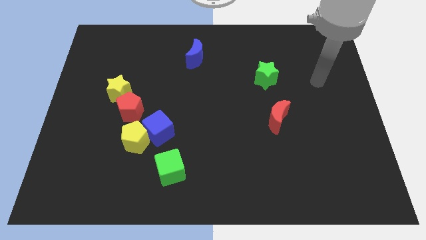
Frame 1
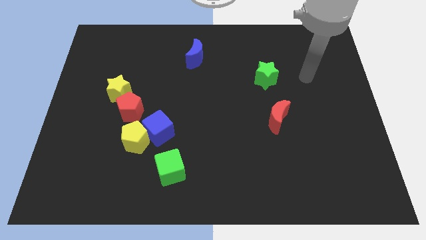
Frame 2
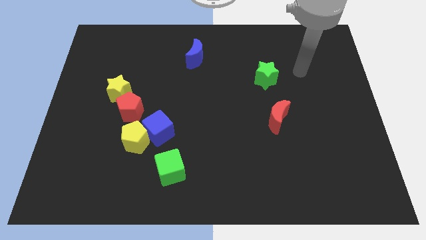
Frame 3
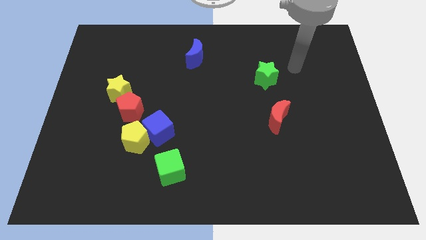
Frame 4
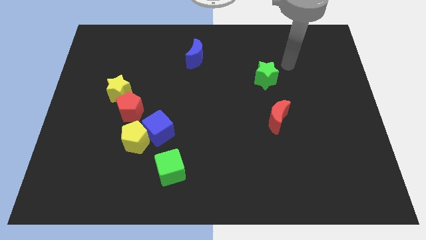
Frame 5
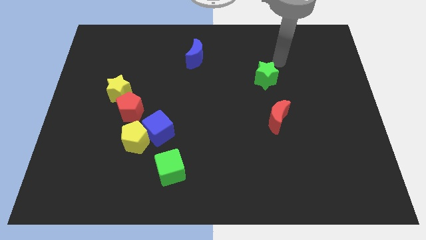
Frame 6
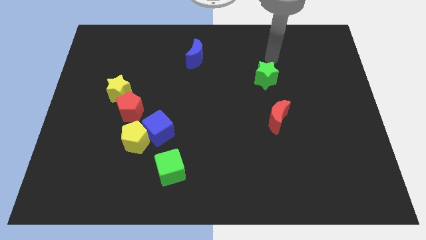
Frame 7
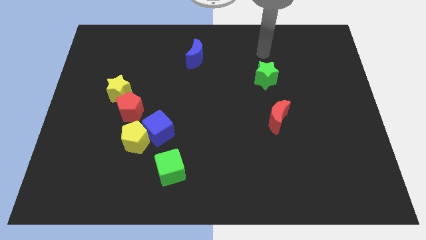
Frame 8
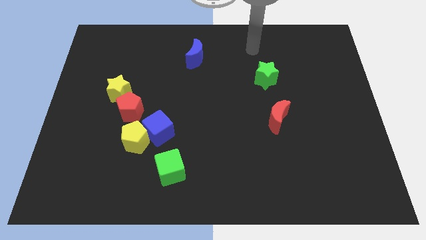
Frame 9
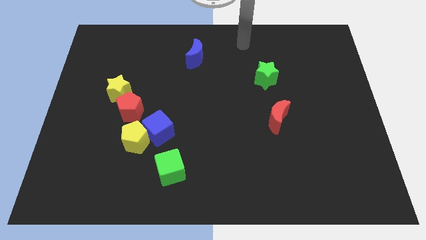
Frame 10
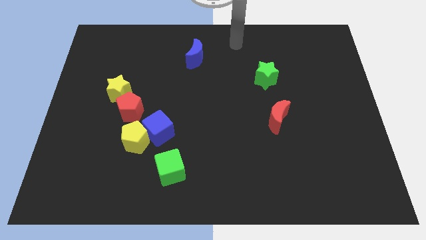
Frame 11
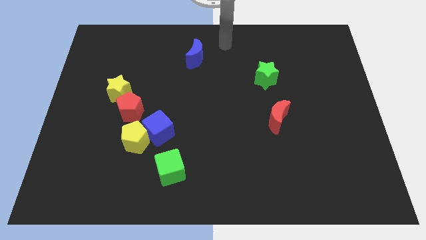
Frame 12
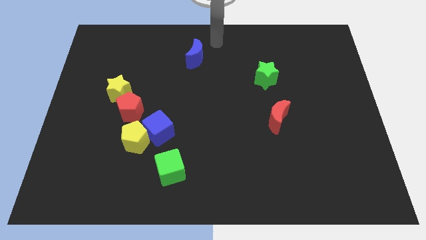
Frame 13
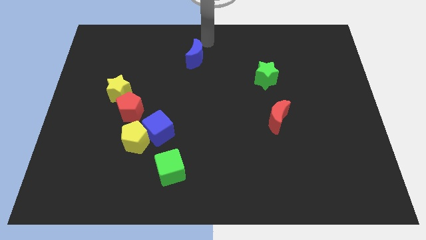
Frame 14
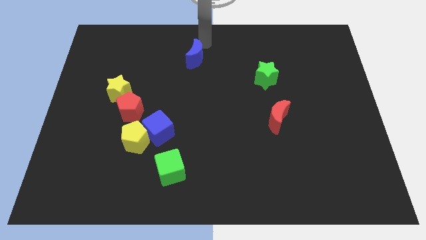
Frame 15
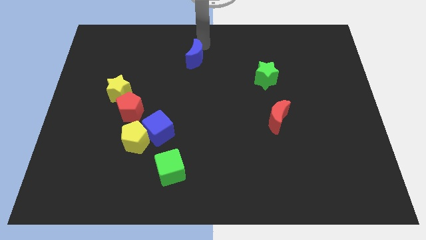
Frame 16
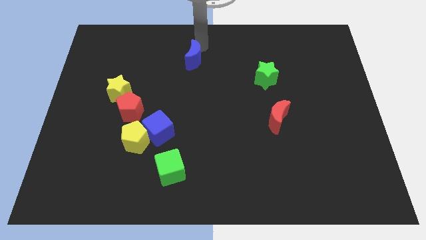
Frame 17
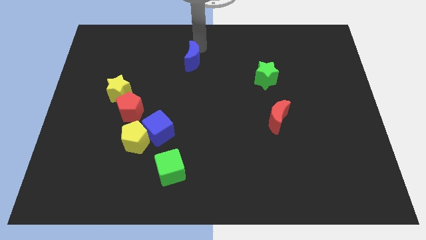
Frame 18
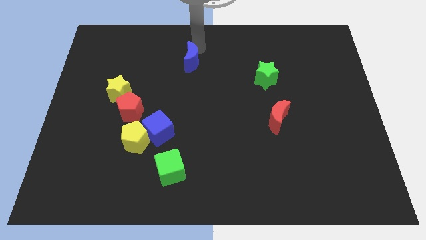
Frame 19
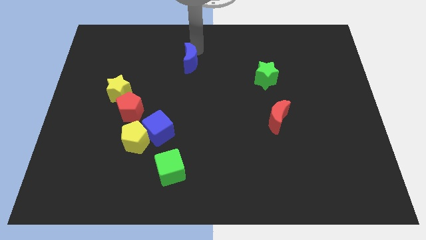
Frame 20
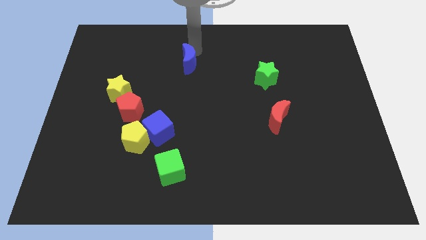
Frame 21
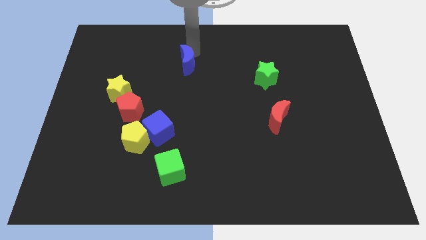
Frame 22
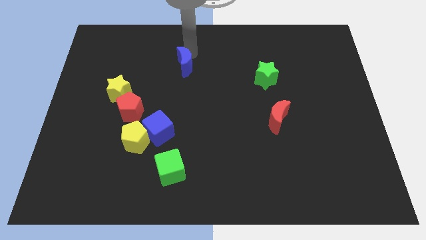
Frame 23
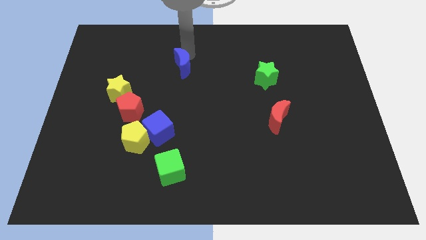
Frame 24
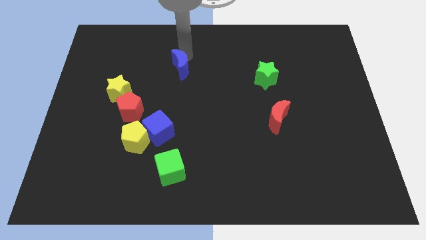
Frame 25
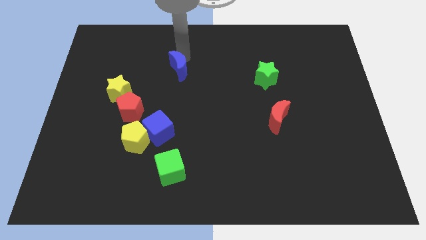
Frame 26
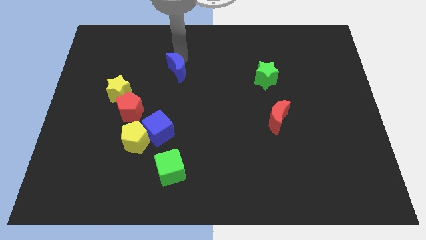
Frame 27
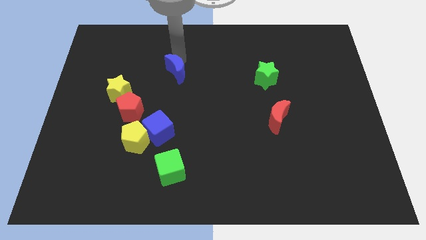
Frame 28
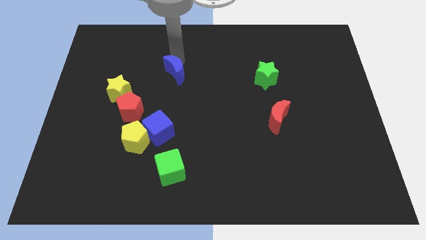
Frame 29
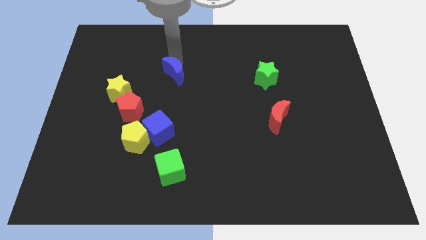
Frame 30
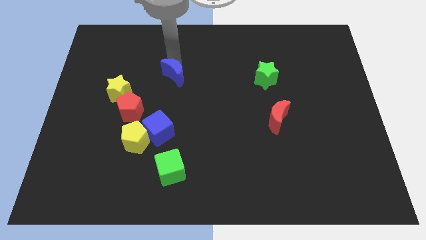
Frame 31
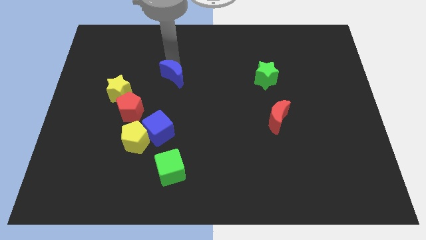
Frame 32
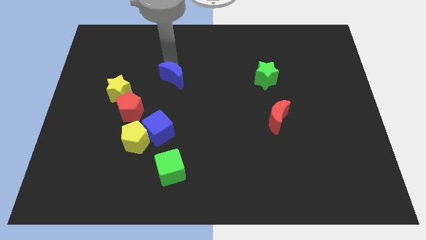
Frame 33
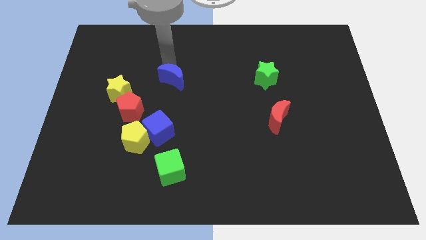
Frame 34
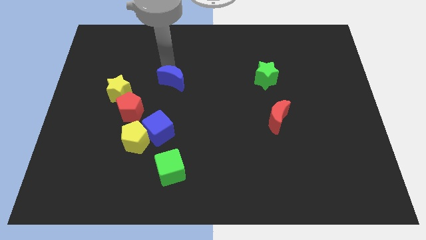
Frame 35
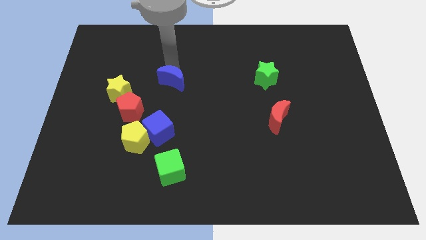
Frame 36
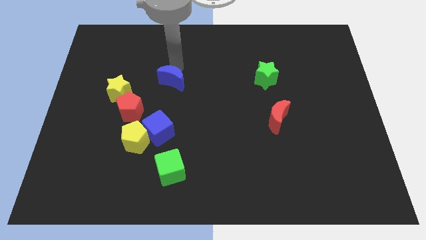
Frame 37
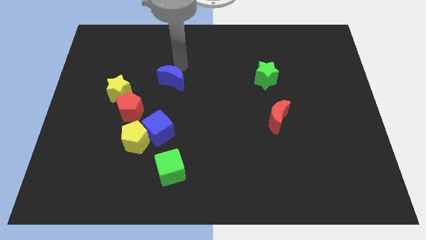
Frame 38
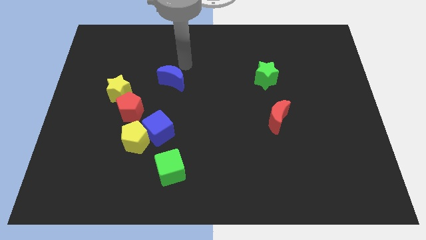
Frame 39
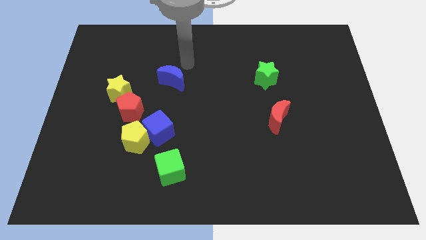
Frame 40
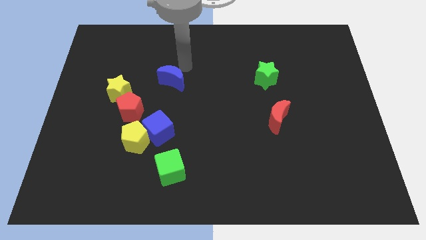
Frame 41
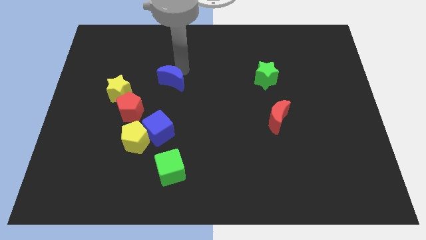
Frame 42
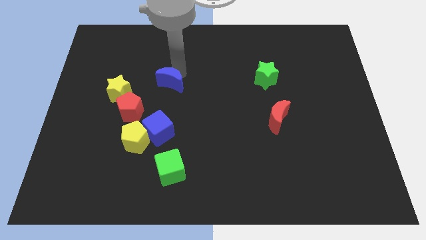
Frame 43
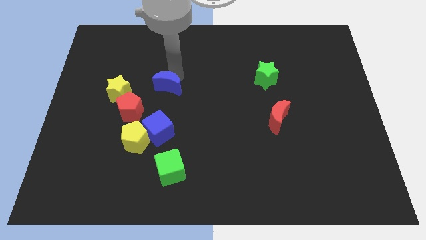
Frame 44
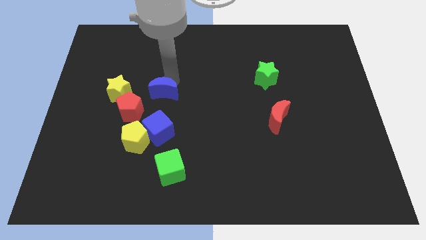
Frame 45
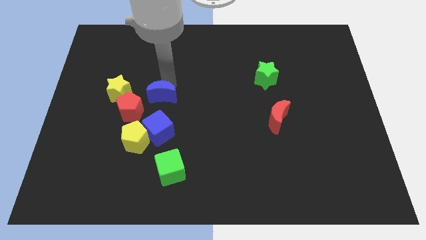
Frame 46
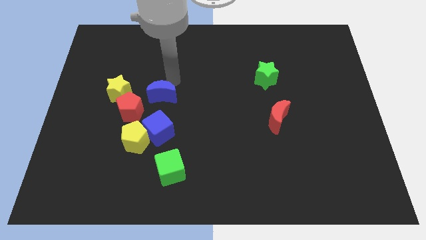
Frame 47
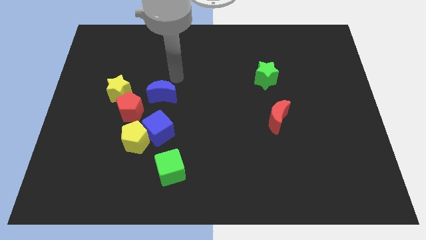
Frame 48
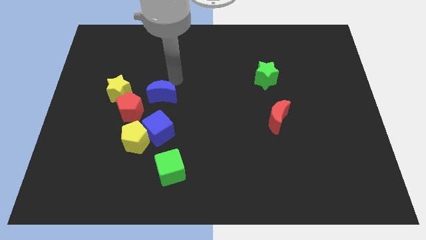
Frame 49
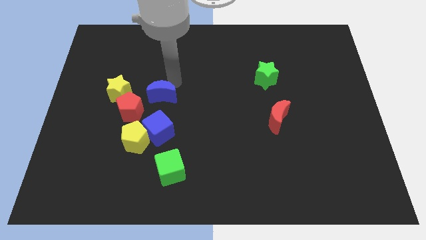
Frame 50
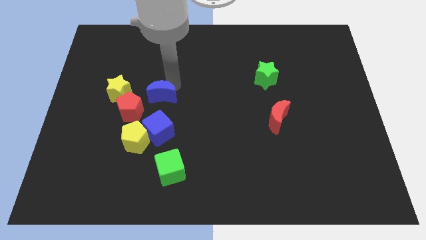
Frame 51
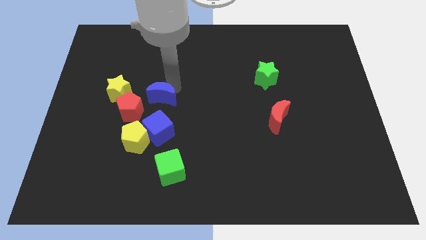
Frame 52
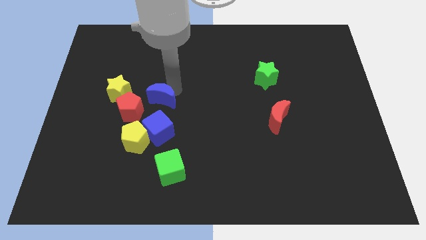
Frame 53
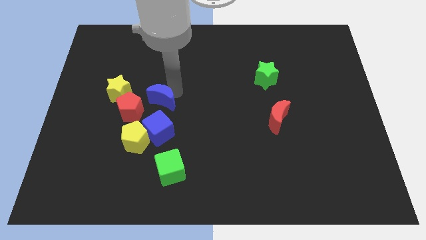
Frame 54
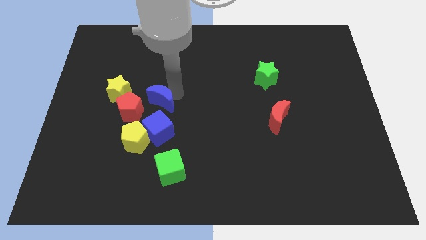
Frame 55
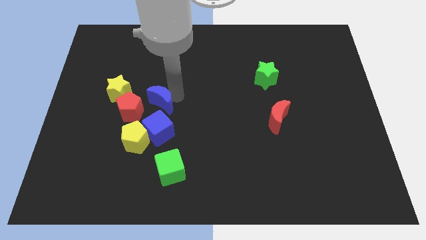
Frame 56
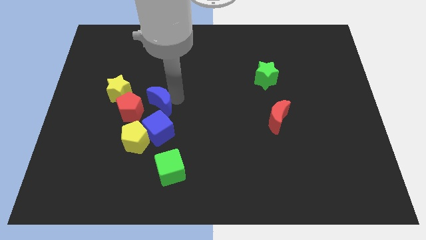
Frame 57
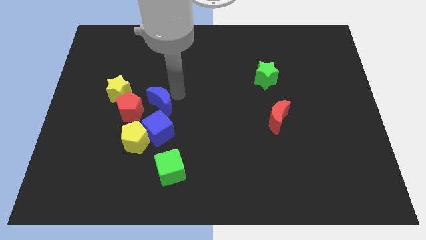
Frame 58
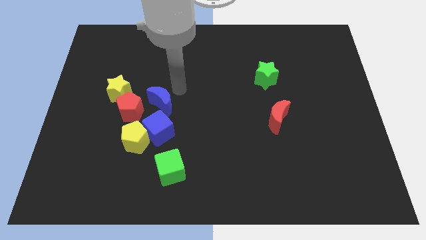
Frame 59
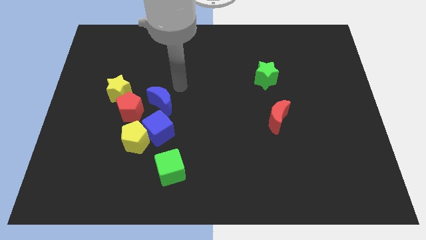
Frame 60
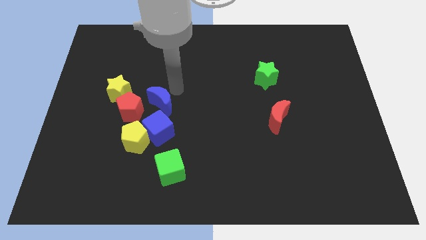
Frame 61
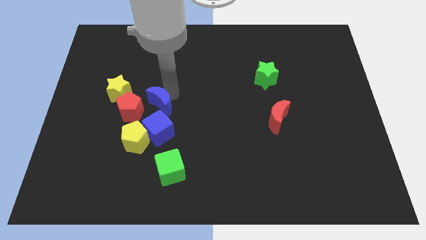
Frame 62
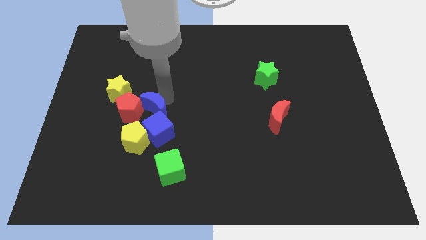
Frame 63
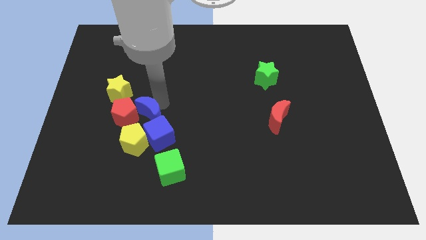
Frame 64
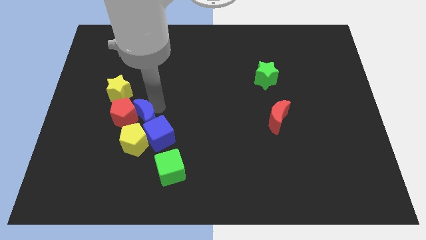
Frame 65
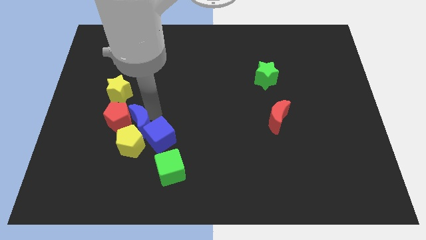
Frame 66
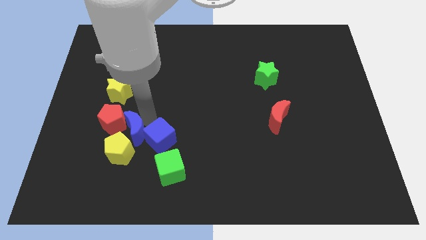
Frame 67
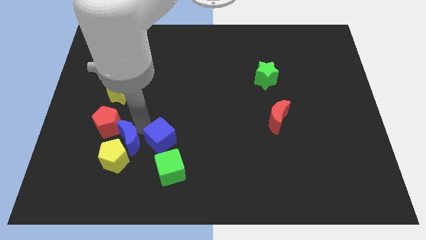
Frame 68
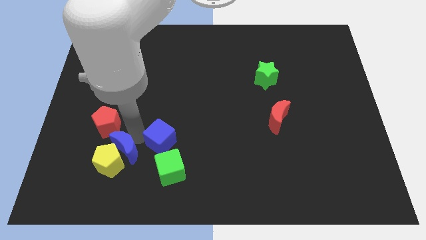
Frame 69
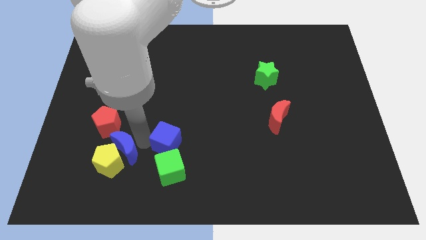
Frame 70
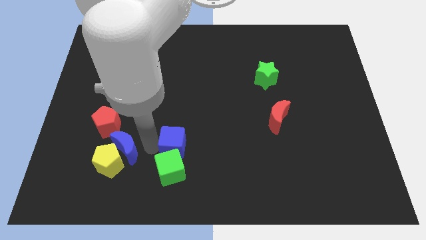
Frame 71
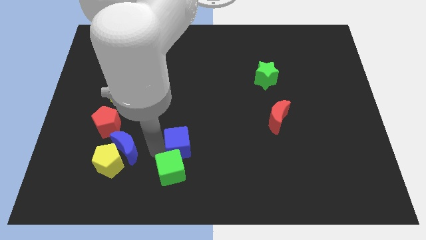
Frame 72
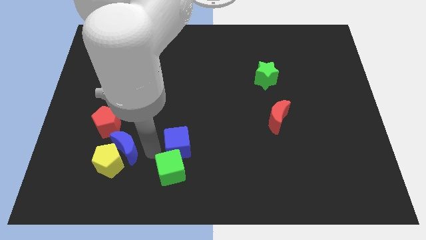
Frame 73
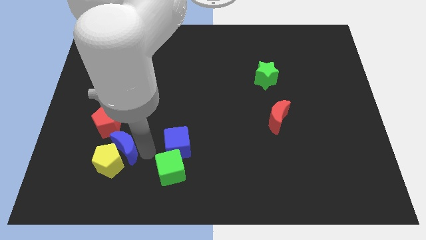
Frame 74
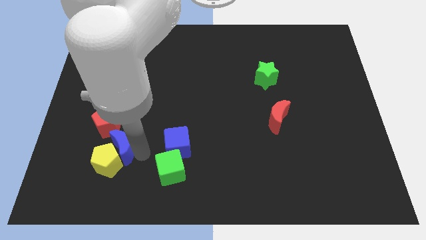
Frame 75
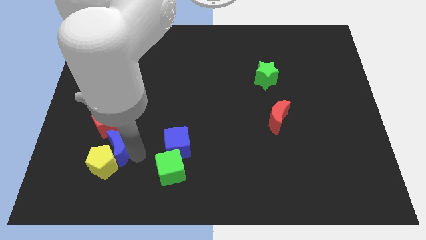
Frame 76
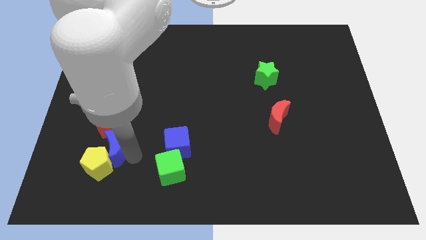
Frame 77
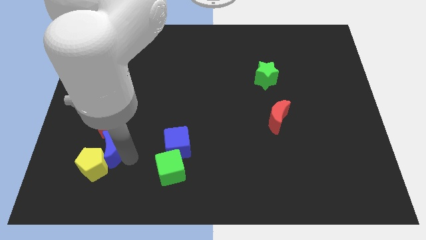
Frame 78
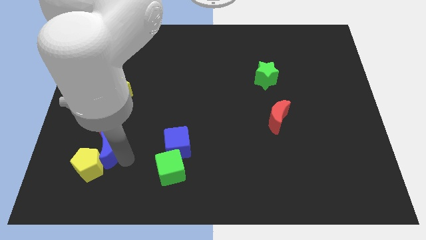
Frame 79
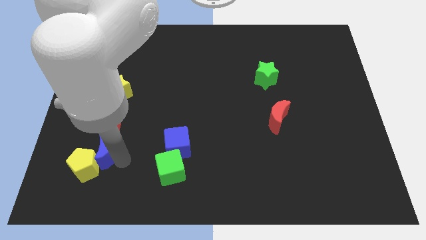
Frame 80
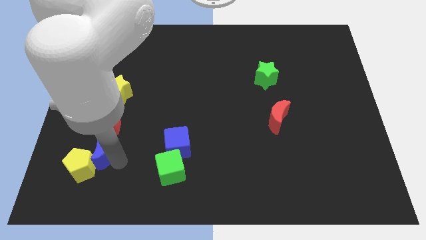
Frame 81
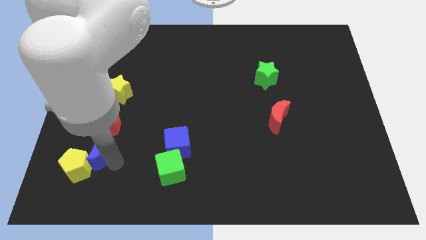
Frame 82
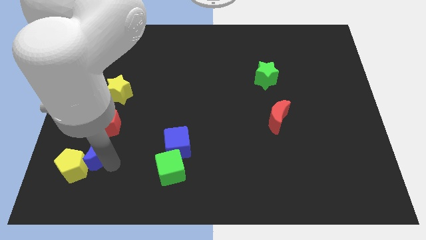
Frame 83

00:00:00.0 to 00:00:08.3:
slide the blue moon to the bottom left side of the red pentagon

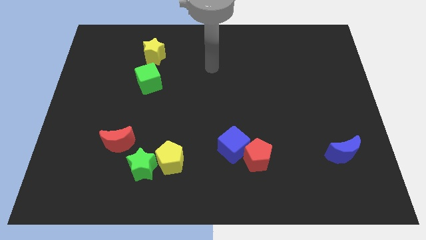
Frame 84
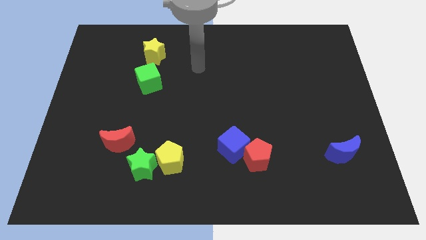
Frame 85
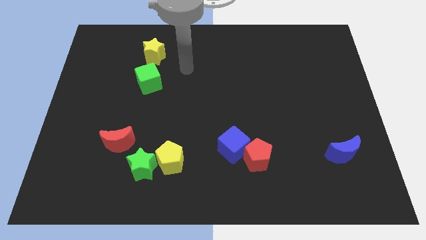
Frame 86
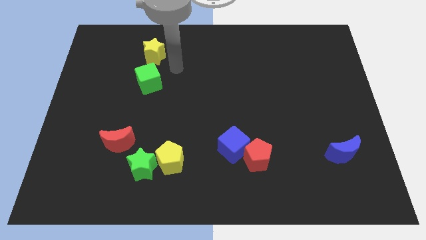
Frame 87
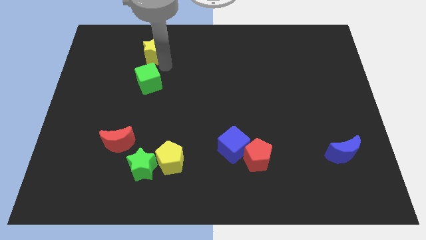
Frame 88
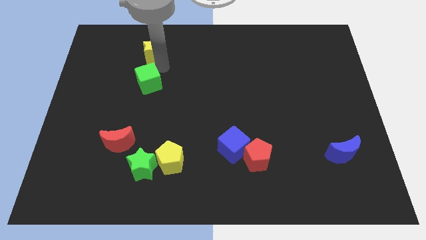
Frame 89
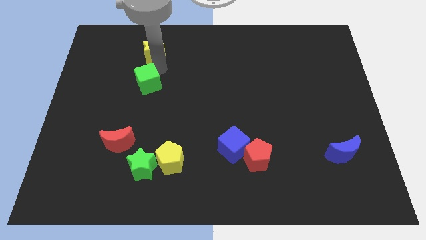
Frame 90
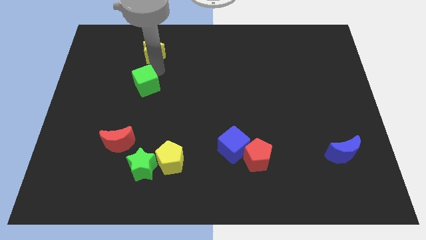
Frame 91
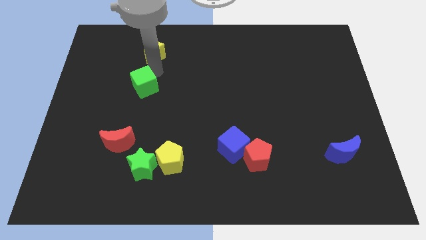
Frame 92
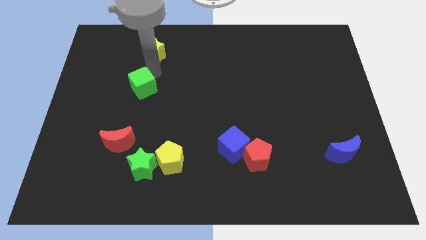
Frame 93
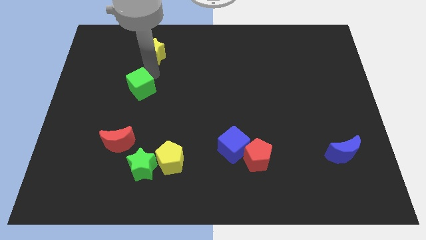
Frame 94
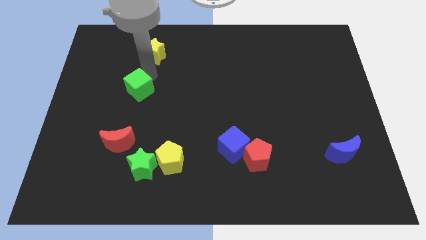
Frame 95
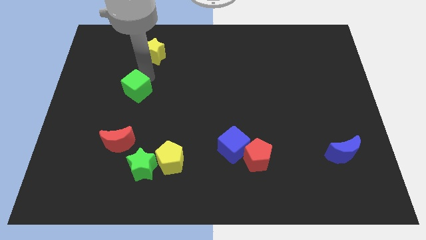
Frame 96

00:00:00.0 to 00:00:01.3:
put the green cube to the top side of the red moon
